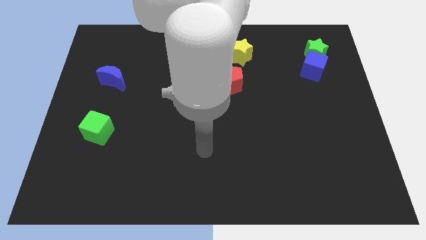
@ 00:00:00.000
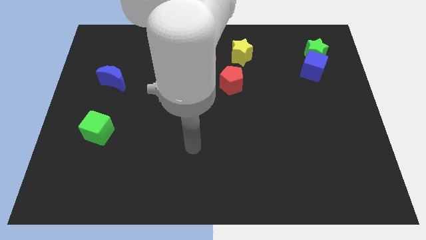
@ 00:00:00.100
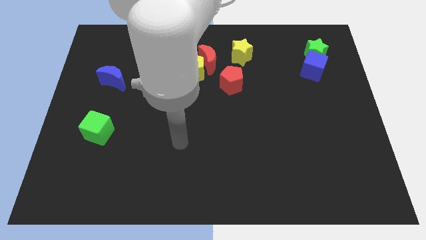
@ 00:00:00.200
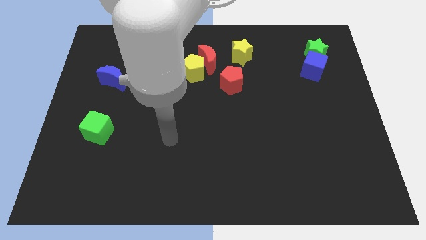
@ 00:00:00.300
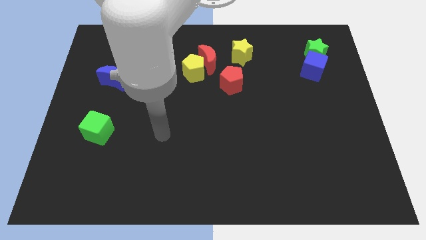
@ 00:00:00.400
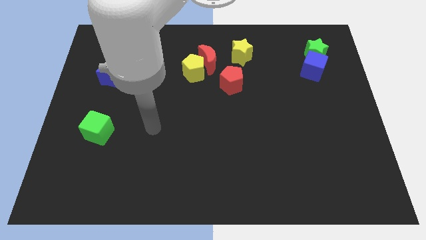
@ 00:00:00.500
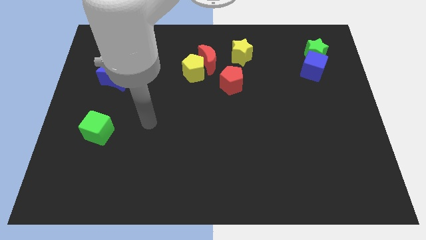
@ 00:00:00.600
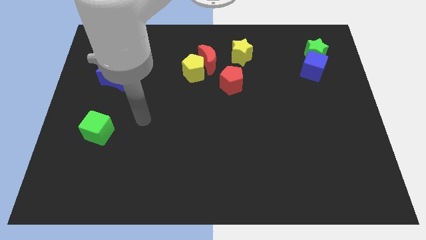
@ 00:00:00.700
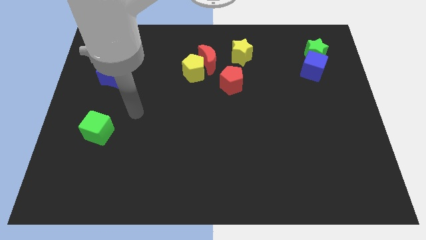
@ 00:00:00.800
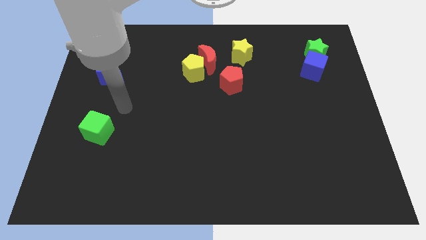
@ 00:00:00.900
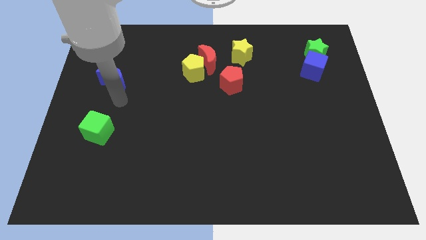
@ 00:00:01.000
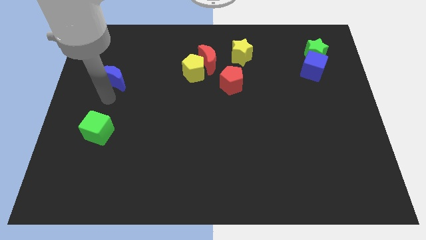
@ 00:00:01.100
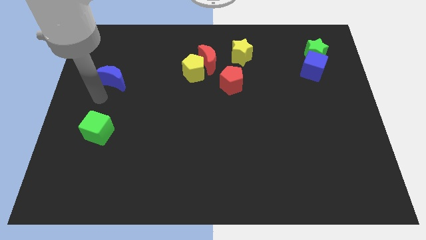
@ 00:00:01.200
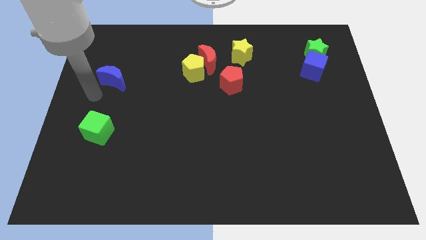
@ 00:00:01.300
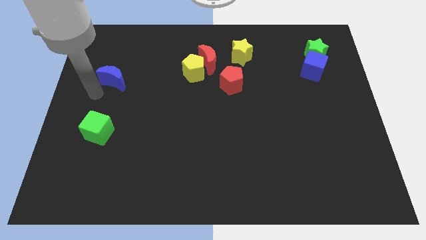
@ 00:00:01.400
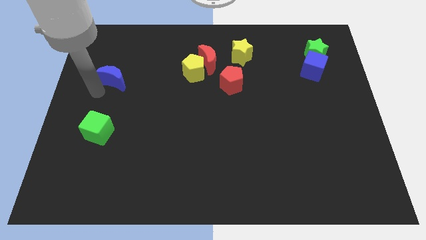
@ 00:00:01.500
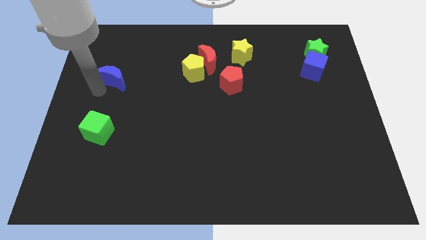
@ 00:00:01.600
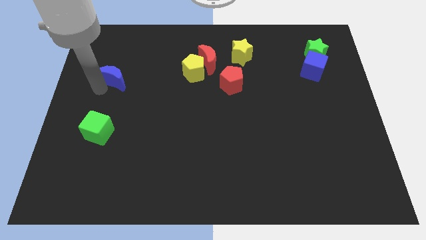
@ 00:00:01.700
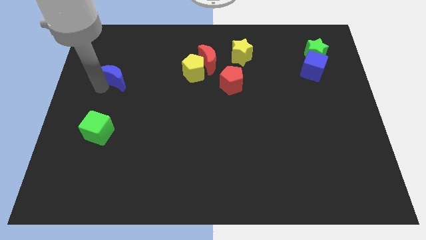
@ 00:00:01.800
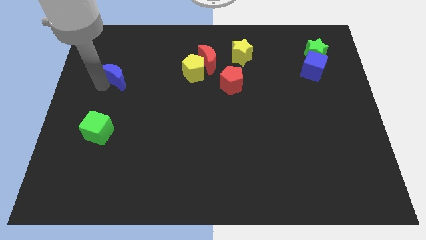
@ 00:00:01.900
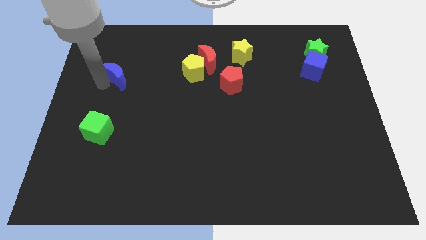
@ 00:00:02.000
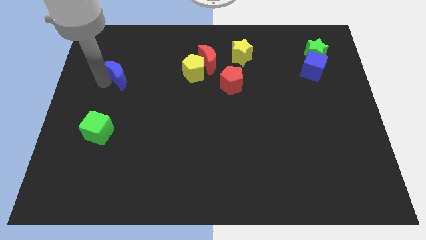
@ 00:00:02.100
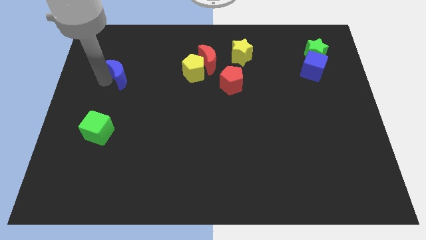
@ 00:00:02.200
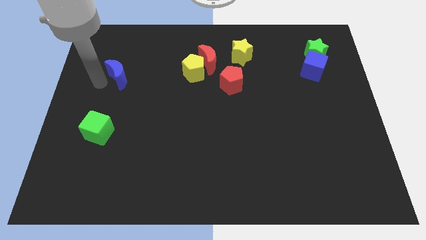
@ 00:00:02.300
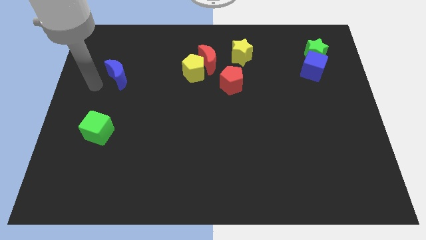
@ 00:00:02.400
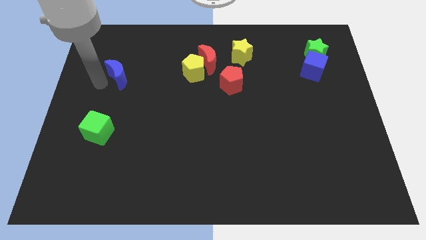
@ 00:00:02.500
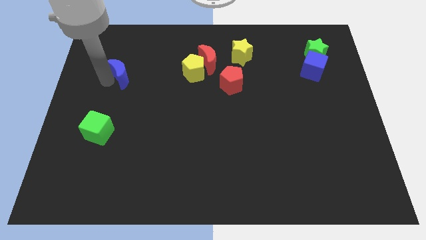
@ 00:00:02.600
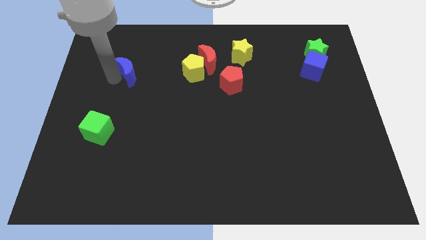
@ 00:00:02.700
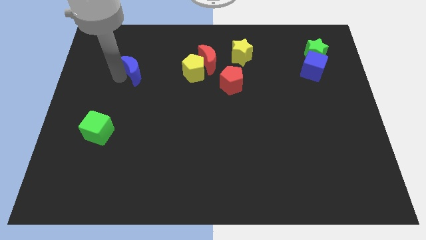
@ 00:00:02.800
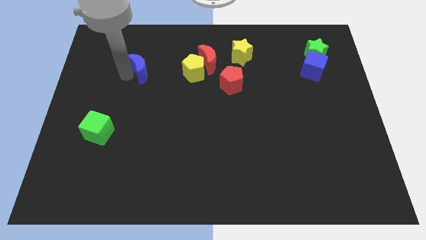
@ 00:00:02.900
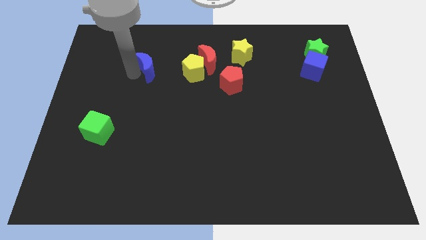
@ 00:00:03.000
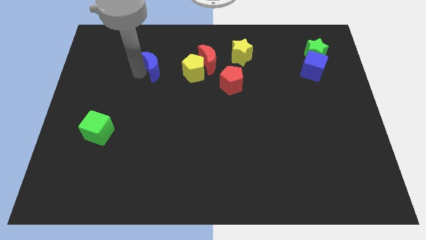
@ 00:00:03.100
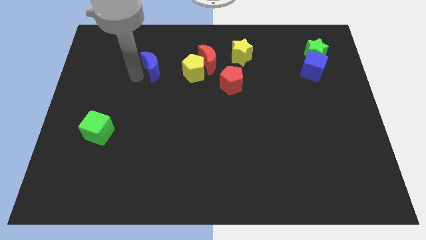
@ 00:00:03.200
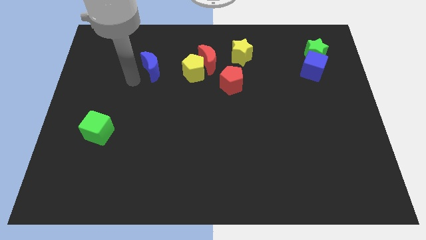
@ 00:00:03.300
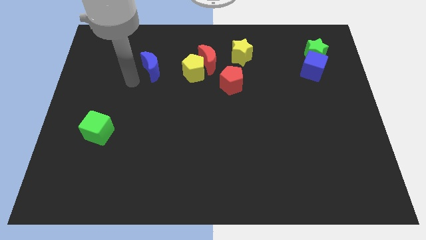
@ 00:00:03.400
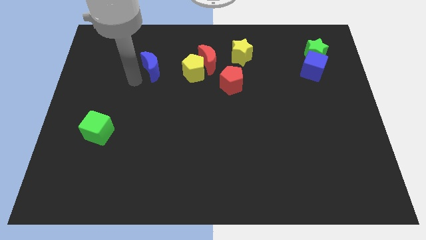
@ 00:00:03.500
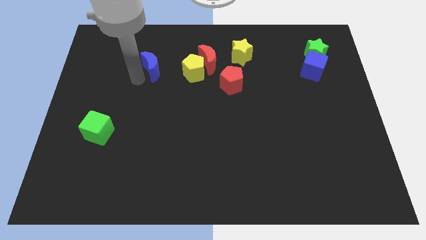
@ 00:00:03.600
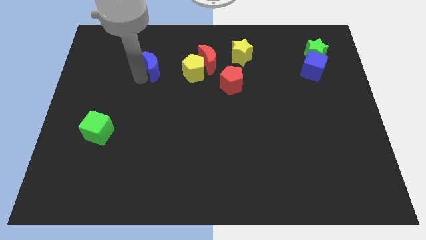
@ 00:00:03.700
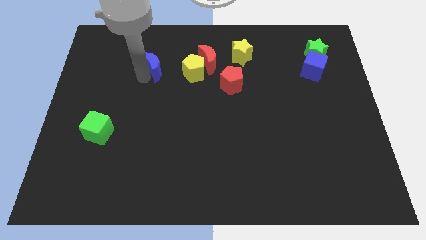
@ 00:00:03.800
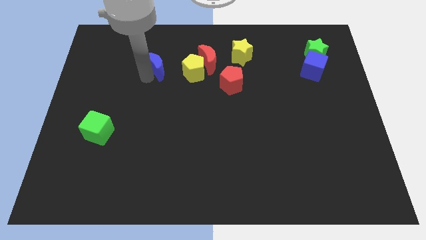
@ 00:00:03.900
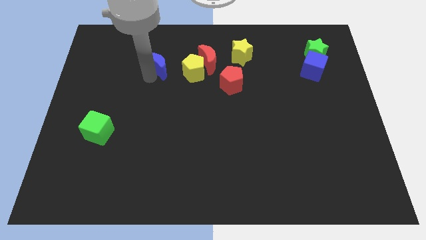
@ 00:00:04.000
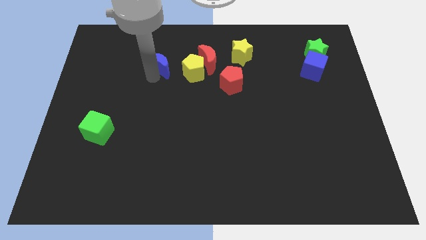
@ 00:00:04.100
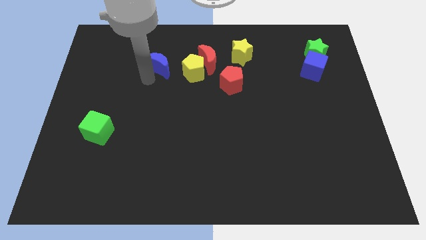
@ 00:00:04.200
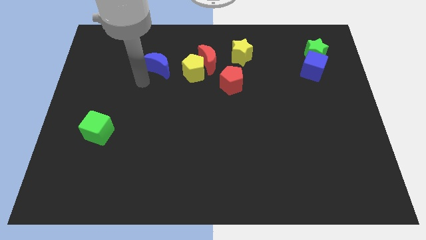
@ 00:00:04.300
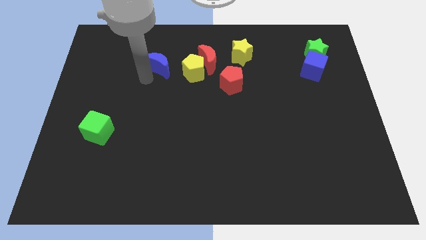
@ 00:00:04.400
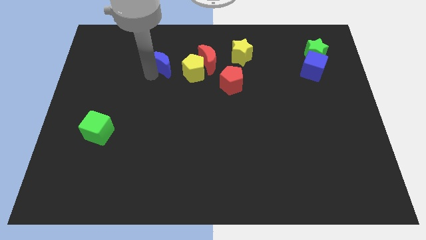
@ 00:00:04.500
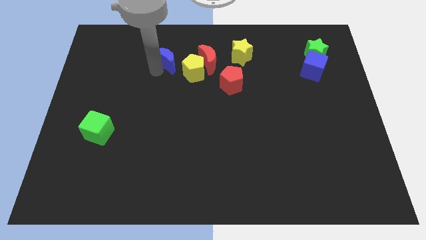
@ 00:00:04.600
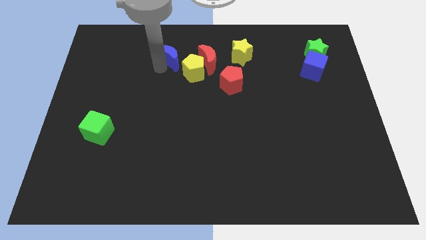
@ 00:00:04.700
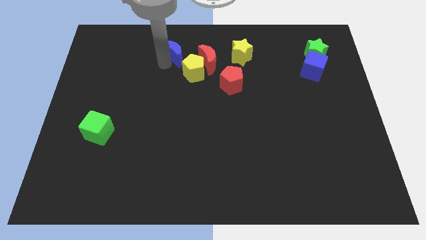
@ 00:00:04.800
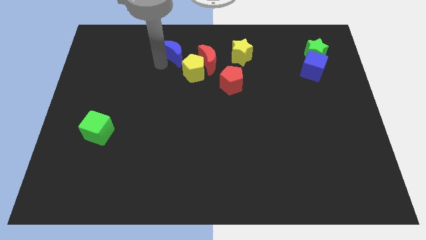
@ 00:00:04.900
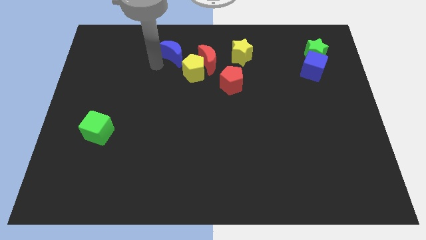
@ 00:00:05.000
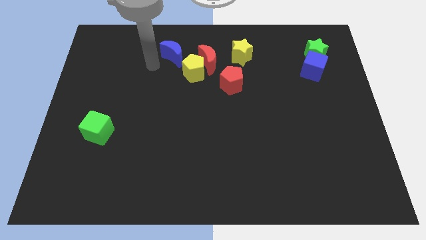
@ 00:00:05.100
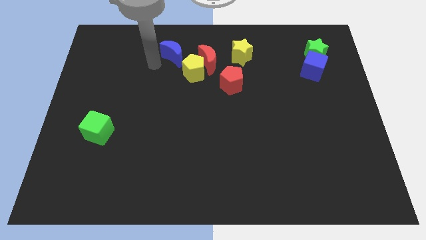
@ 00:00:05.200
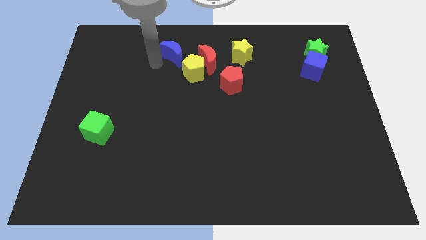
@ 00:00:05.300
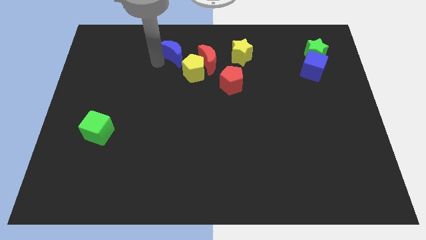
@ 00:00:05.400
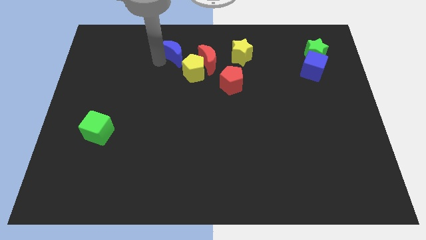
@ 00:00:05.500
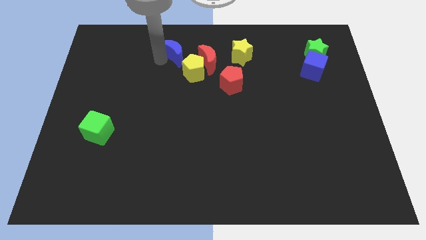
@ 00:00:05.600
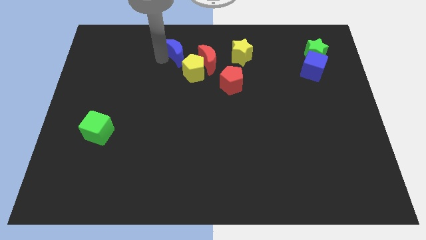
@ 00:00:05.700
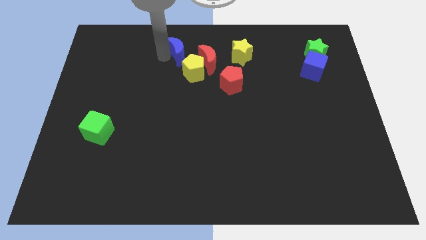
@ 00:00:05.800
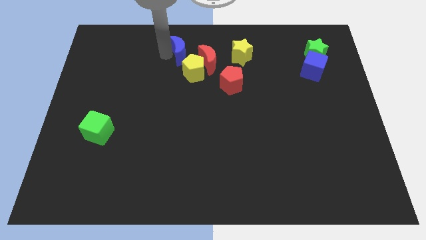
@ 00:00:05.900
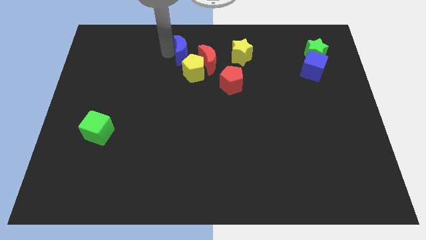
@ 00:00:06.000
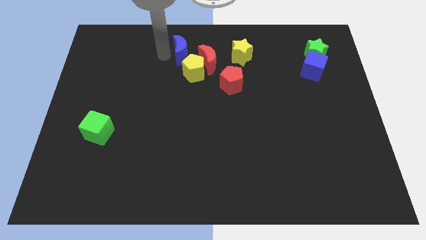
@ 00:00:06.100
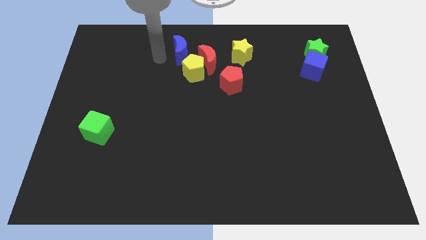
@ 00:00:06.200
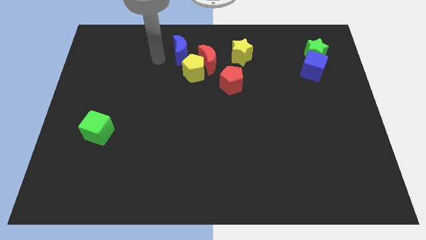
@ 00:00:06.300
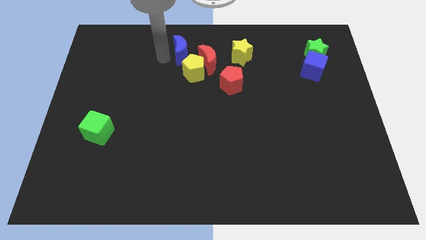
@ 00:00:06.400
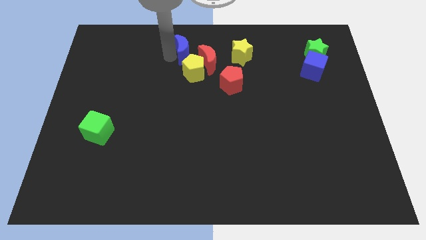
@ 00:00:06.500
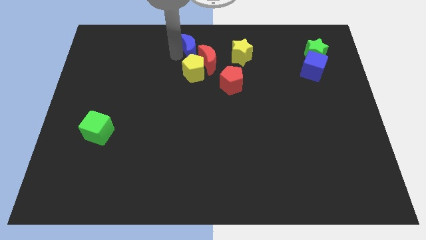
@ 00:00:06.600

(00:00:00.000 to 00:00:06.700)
put the blue moon to the top

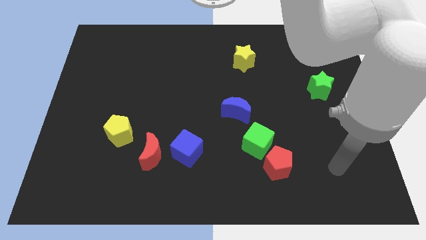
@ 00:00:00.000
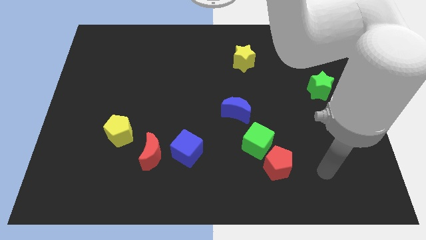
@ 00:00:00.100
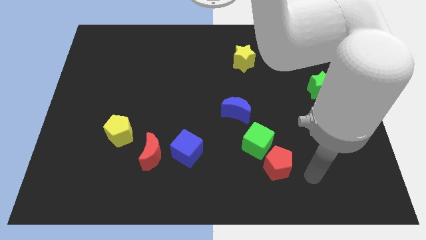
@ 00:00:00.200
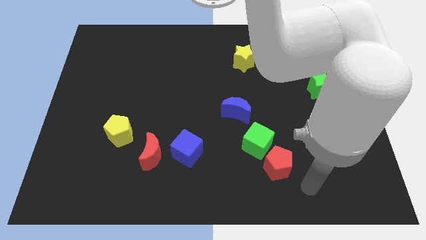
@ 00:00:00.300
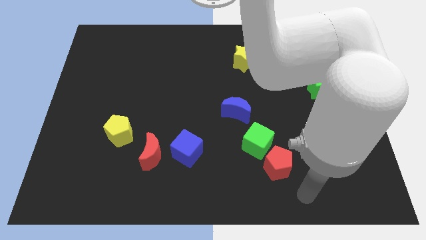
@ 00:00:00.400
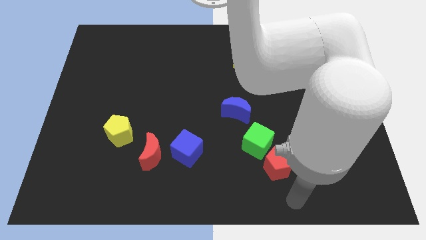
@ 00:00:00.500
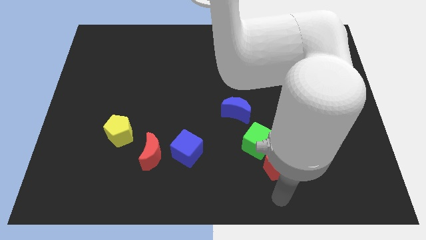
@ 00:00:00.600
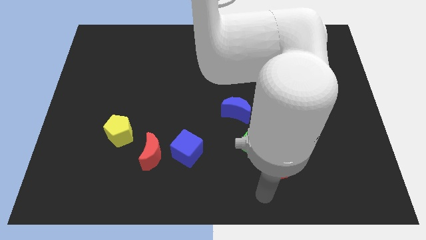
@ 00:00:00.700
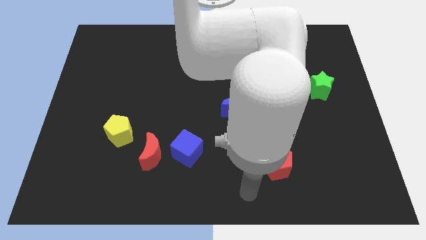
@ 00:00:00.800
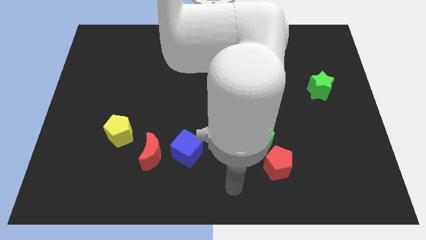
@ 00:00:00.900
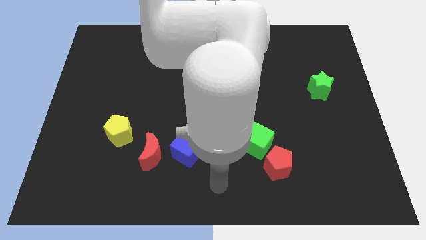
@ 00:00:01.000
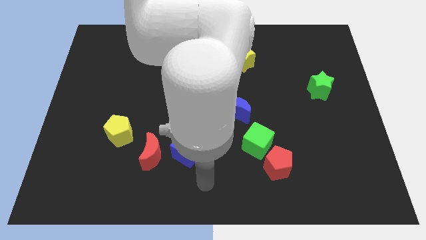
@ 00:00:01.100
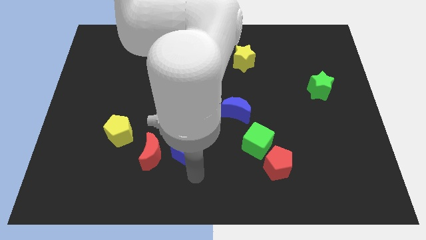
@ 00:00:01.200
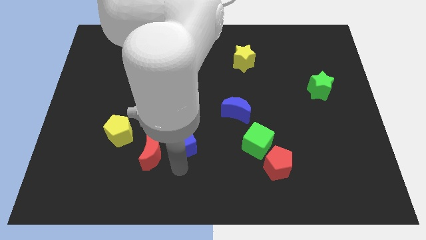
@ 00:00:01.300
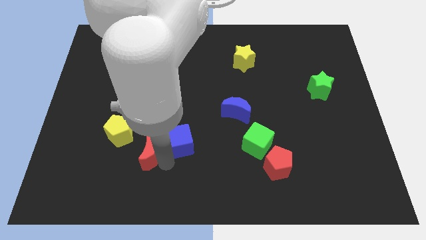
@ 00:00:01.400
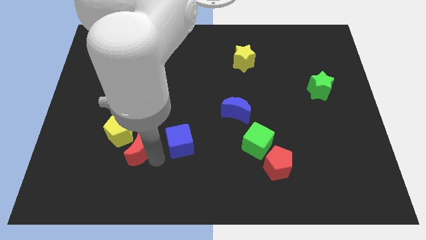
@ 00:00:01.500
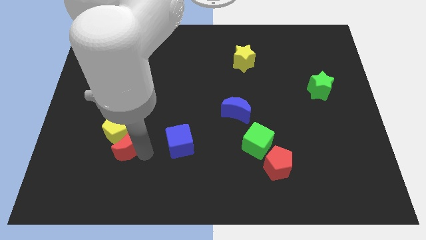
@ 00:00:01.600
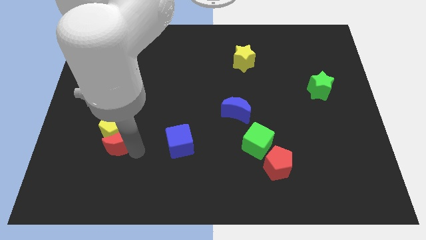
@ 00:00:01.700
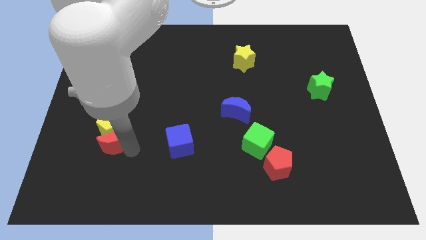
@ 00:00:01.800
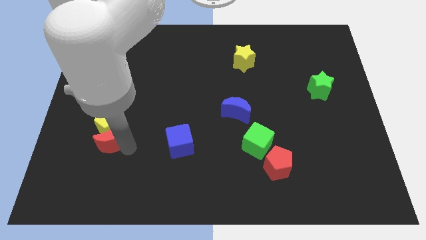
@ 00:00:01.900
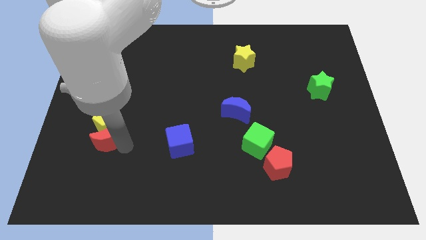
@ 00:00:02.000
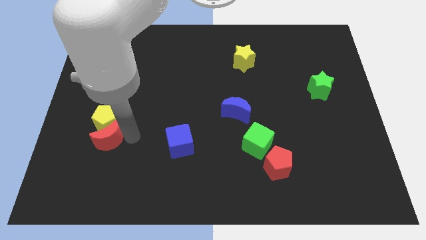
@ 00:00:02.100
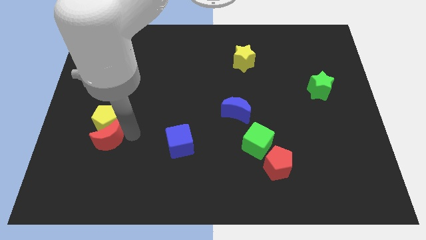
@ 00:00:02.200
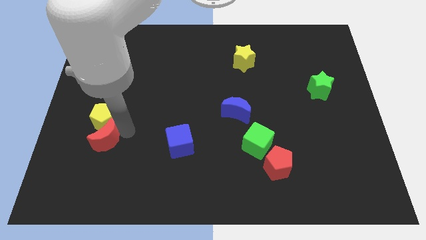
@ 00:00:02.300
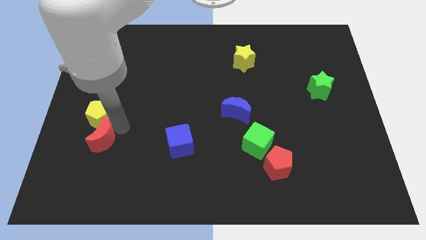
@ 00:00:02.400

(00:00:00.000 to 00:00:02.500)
move the yellow pentagon to the left side
